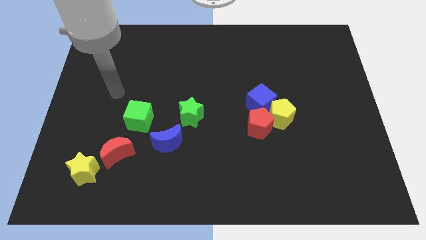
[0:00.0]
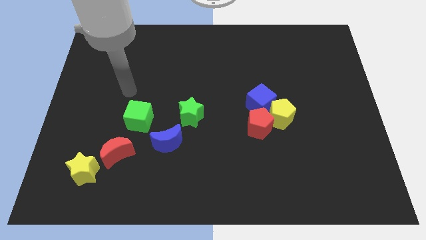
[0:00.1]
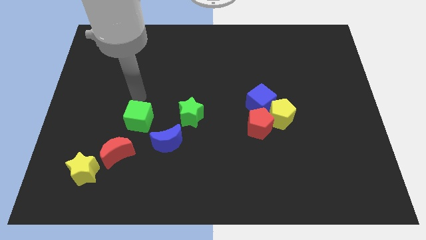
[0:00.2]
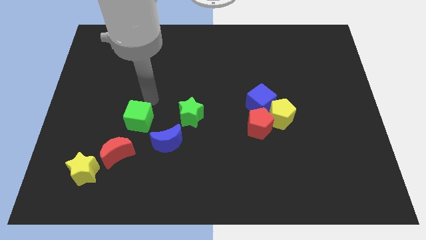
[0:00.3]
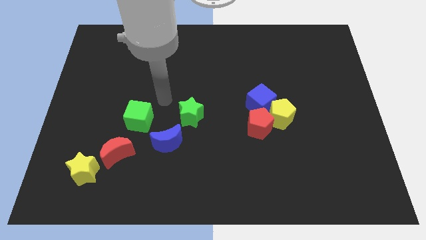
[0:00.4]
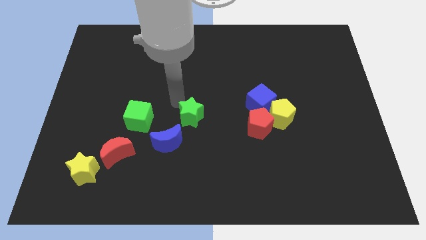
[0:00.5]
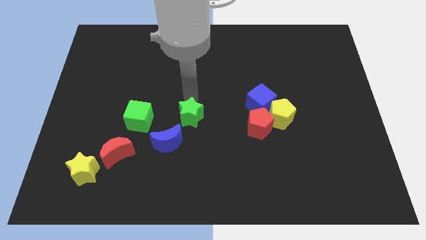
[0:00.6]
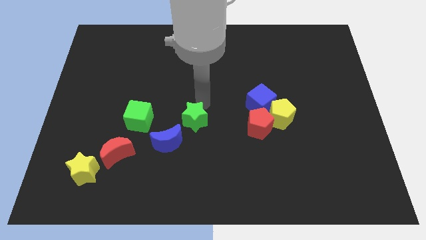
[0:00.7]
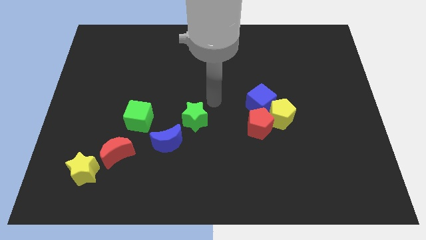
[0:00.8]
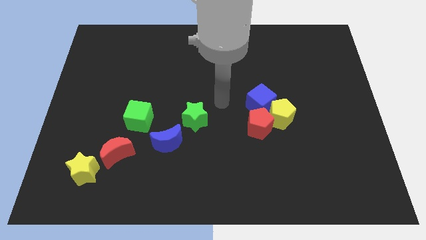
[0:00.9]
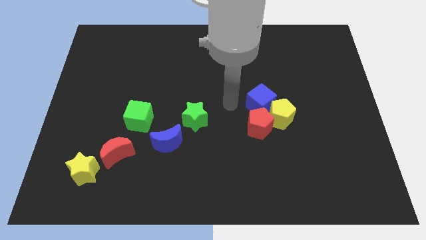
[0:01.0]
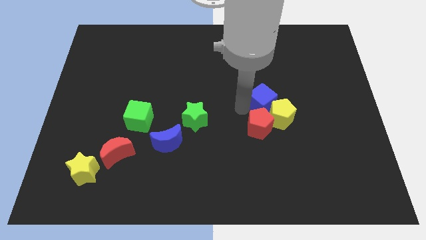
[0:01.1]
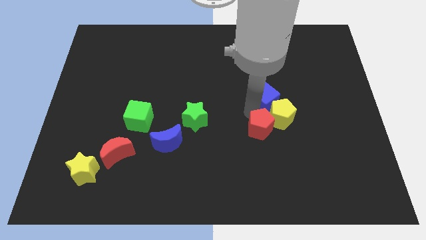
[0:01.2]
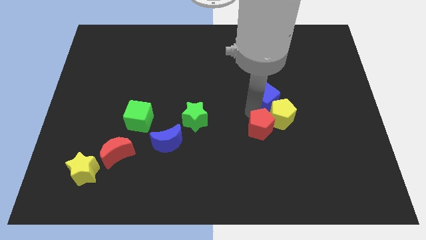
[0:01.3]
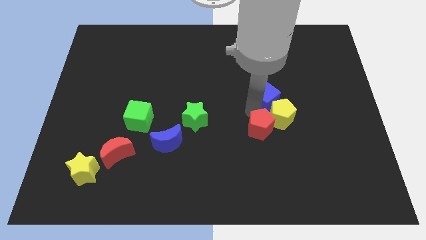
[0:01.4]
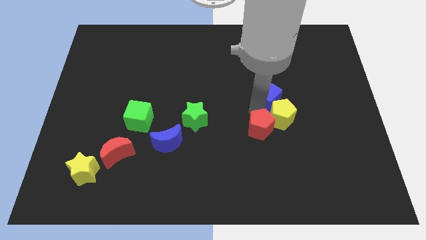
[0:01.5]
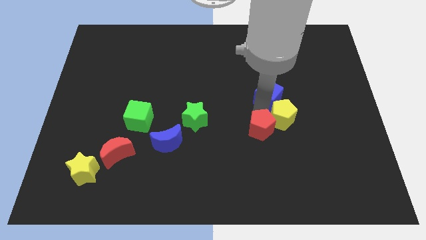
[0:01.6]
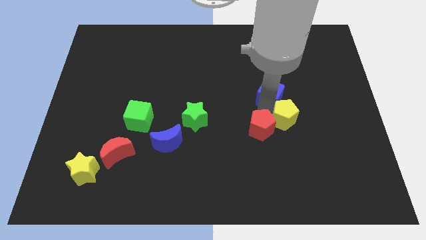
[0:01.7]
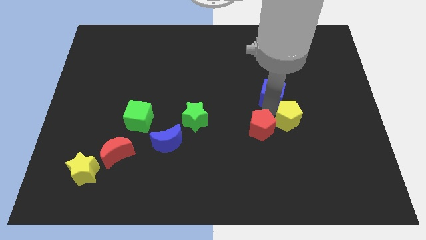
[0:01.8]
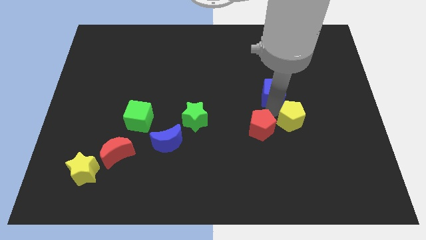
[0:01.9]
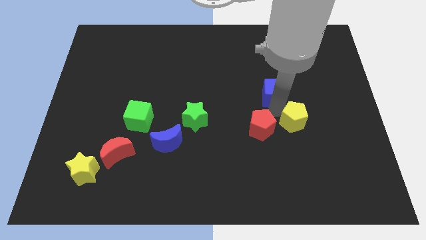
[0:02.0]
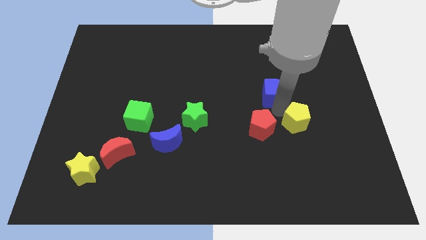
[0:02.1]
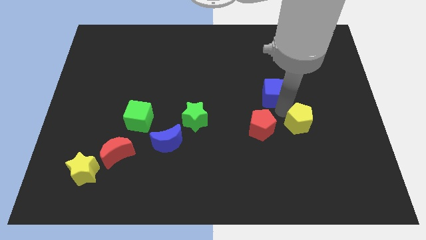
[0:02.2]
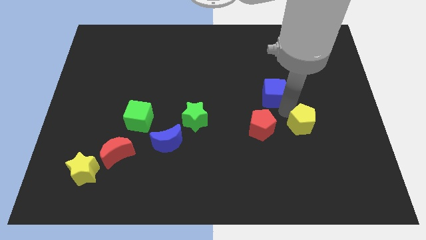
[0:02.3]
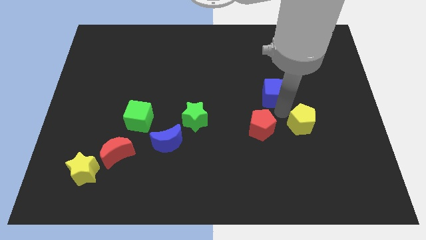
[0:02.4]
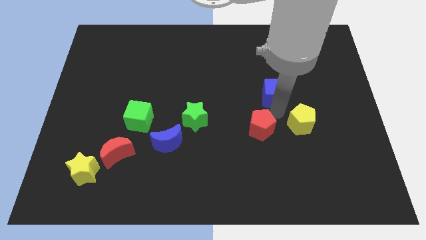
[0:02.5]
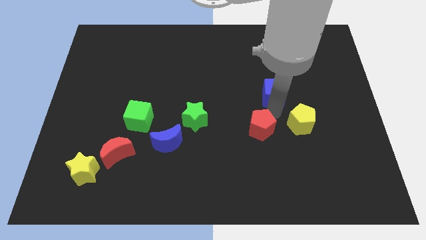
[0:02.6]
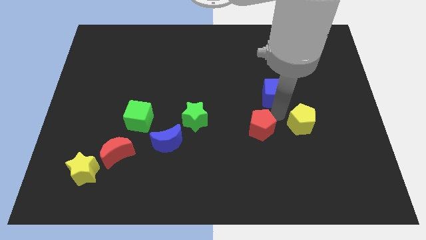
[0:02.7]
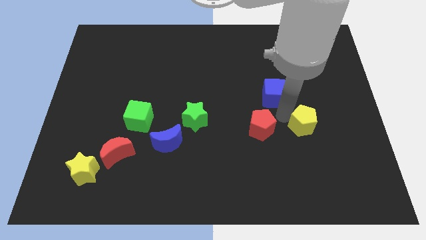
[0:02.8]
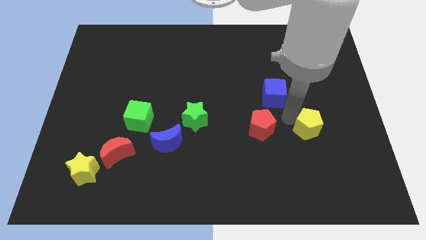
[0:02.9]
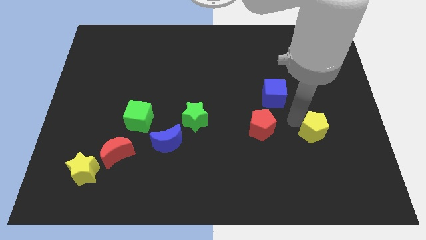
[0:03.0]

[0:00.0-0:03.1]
move the yellow pentagon away from the blue cube and red pentagon

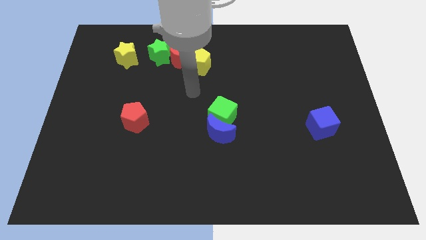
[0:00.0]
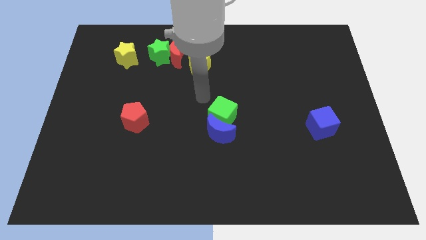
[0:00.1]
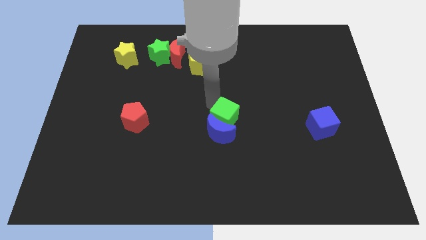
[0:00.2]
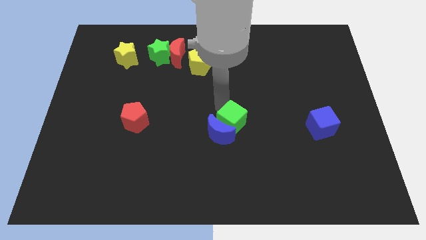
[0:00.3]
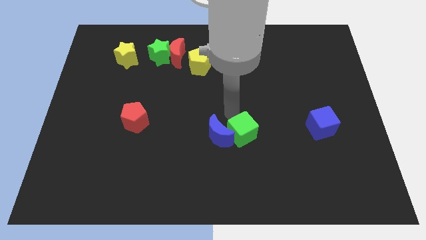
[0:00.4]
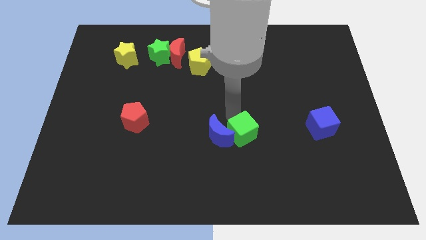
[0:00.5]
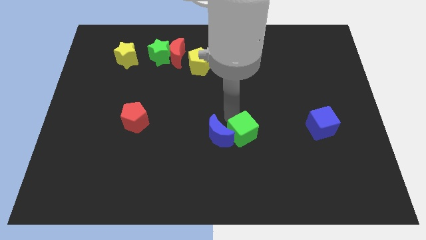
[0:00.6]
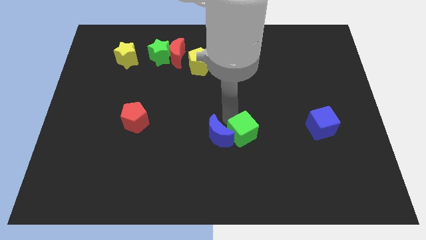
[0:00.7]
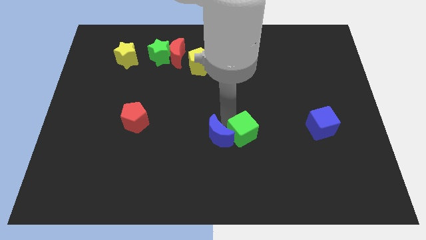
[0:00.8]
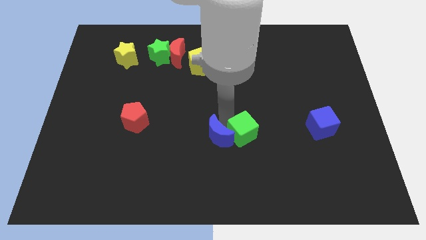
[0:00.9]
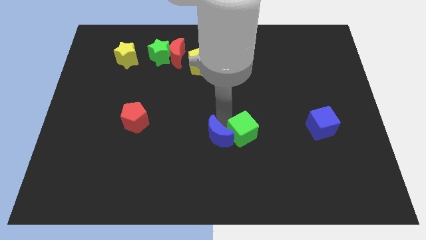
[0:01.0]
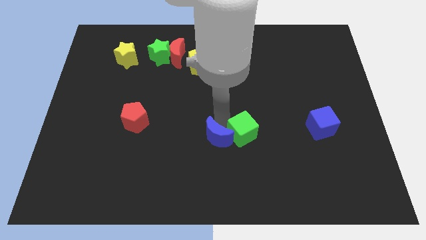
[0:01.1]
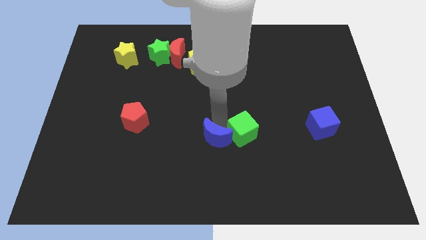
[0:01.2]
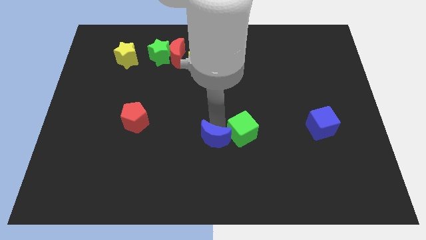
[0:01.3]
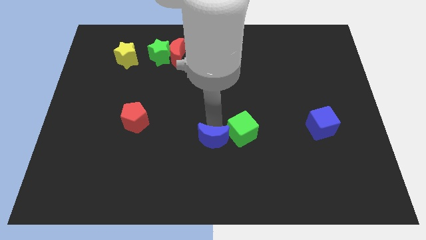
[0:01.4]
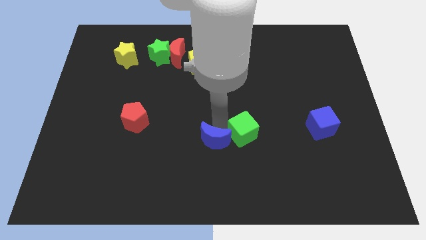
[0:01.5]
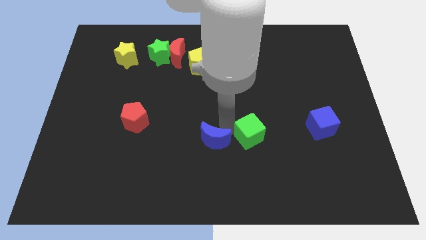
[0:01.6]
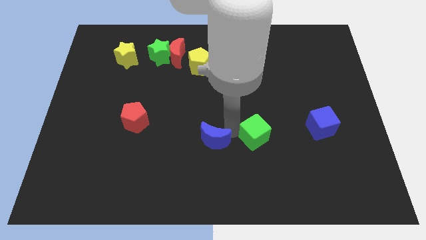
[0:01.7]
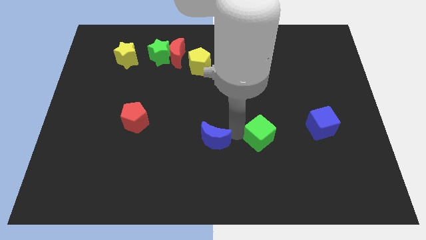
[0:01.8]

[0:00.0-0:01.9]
pull the blue moon apart from the green cube

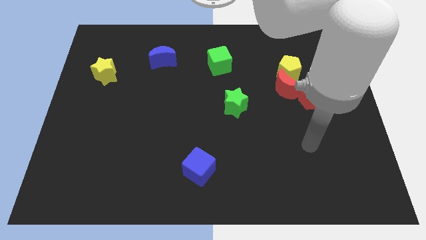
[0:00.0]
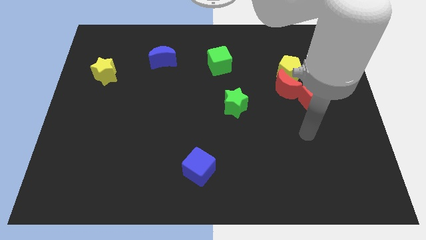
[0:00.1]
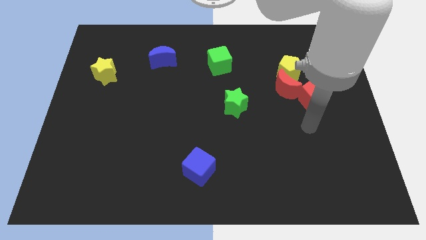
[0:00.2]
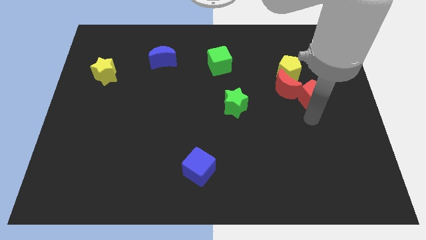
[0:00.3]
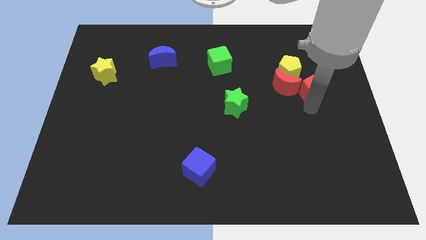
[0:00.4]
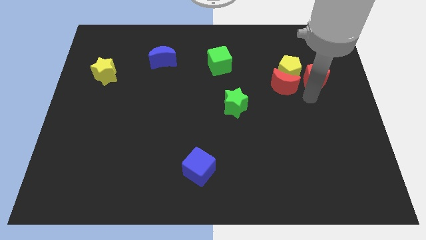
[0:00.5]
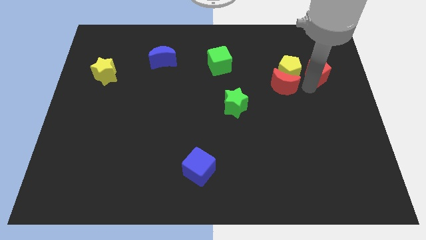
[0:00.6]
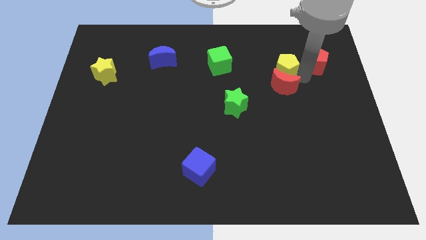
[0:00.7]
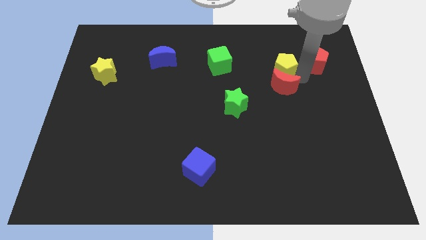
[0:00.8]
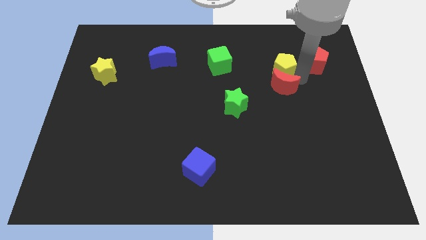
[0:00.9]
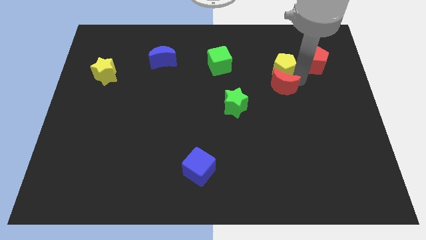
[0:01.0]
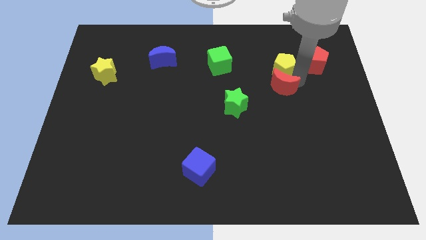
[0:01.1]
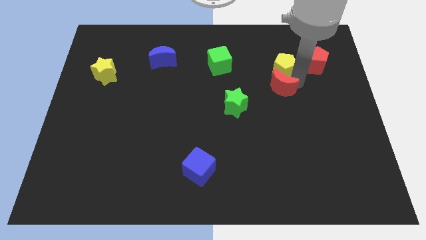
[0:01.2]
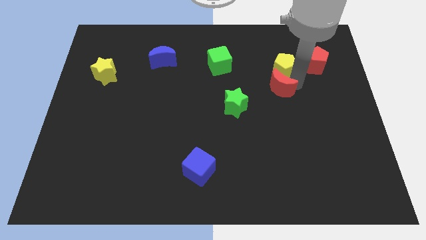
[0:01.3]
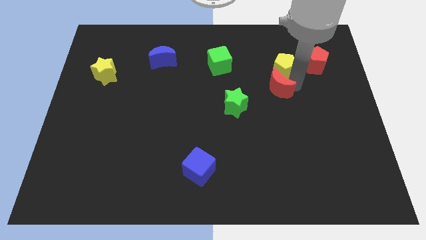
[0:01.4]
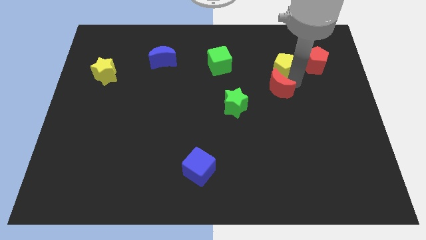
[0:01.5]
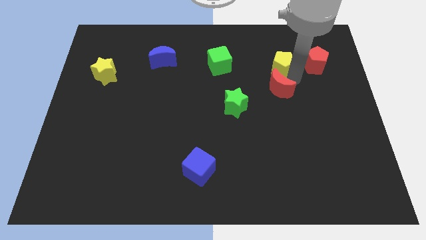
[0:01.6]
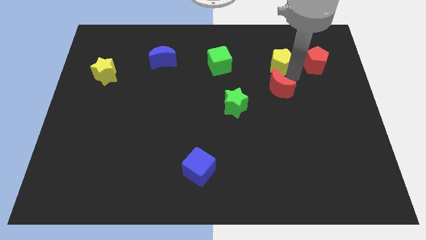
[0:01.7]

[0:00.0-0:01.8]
separate the red moon from the yellow pentagon and red pentagon

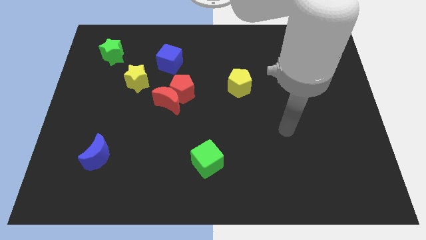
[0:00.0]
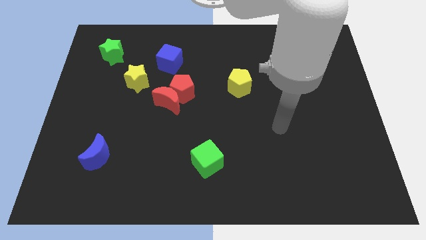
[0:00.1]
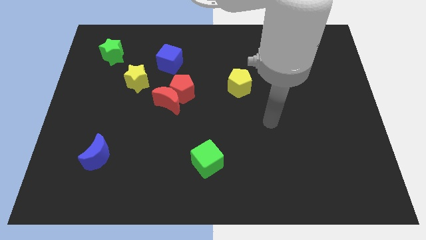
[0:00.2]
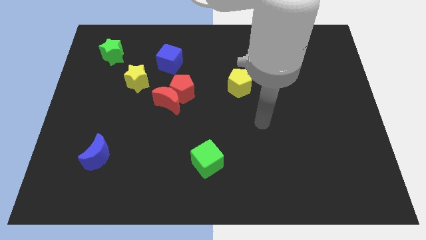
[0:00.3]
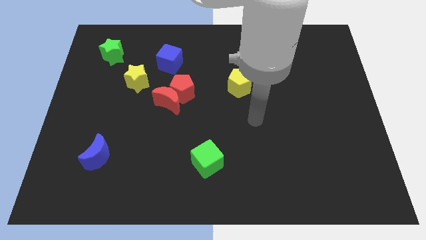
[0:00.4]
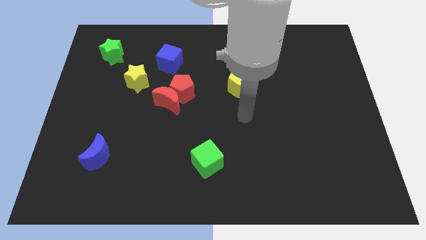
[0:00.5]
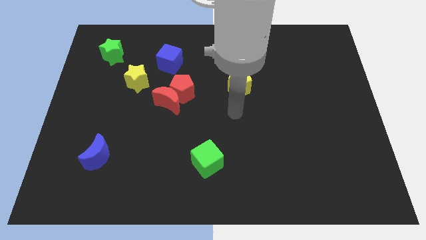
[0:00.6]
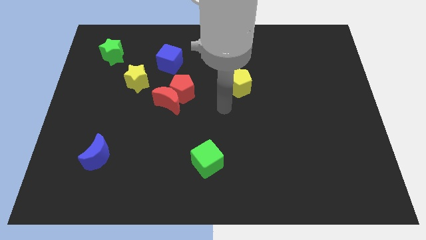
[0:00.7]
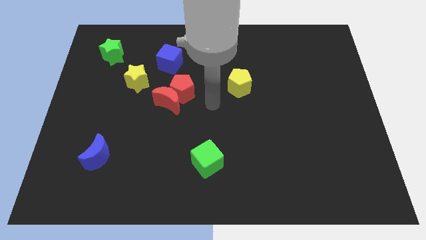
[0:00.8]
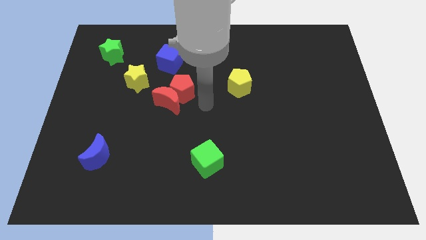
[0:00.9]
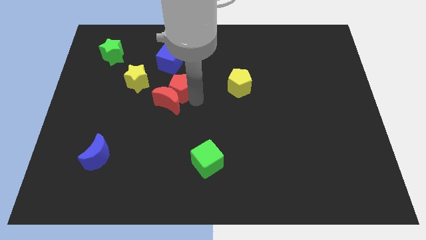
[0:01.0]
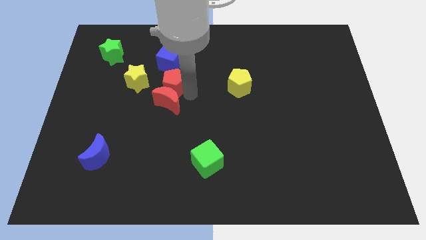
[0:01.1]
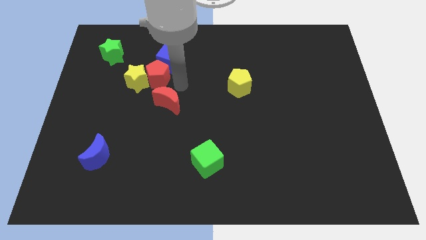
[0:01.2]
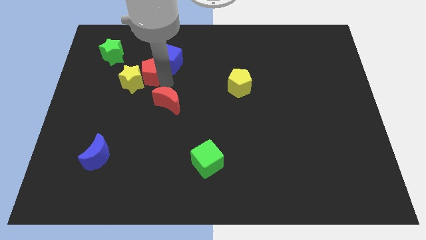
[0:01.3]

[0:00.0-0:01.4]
move the red moon away from the red pentagon

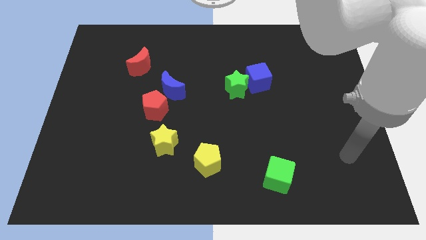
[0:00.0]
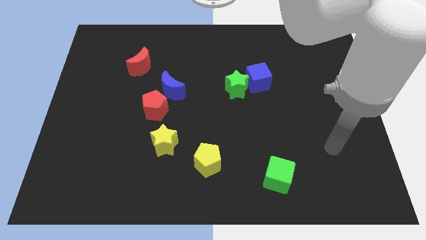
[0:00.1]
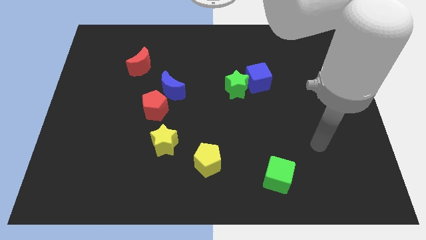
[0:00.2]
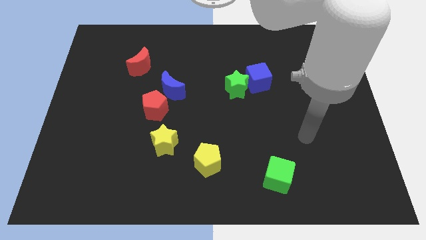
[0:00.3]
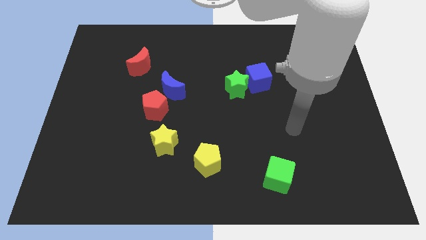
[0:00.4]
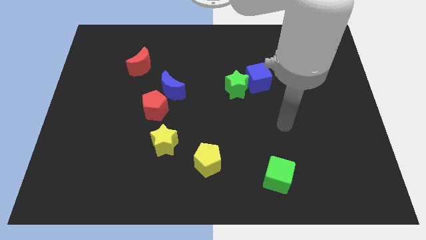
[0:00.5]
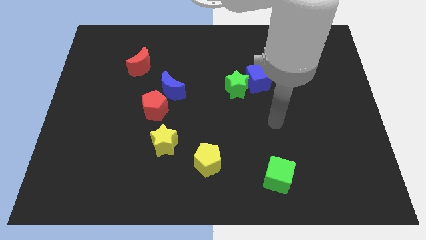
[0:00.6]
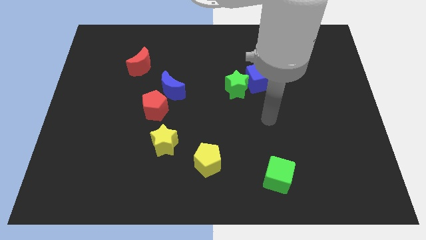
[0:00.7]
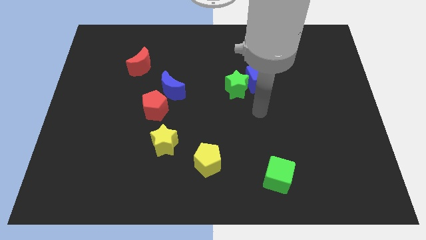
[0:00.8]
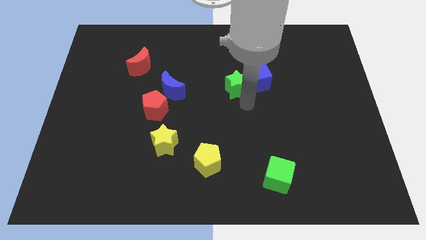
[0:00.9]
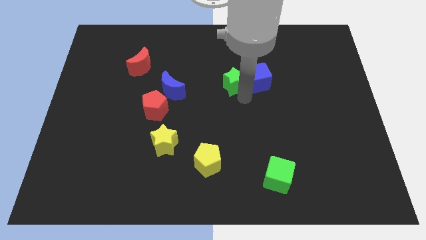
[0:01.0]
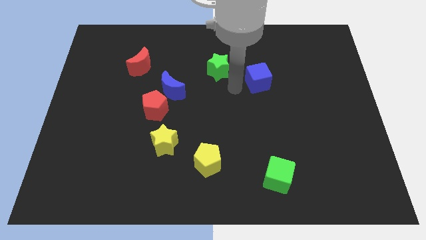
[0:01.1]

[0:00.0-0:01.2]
separate the blue cube from the green star
